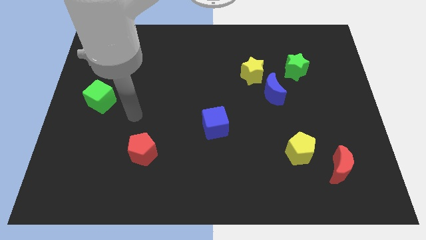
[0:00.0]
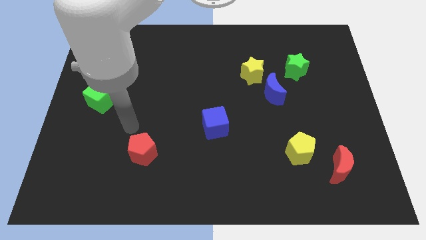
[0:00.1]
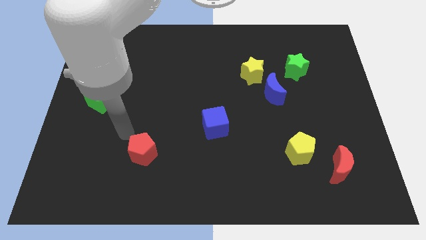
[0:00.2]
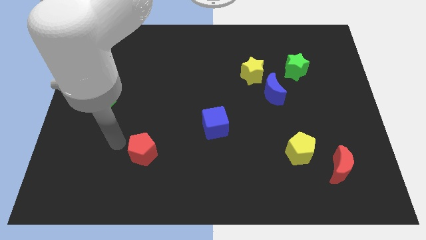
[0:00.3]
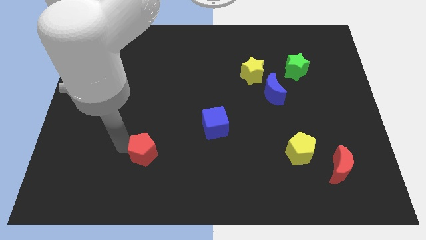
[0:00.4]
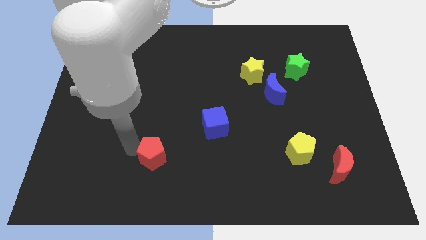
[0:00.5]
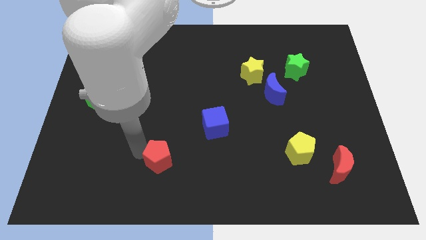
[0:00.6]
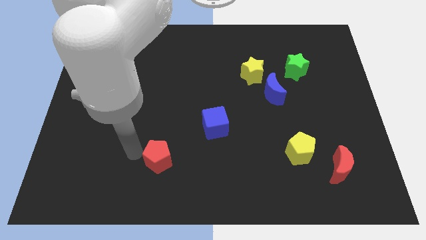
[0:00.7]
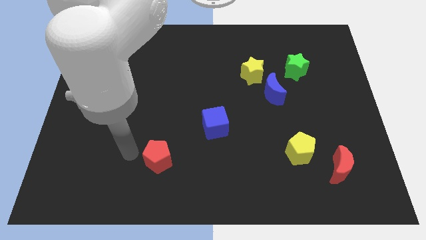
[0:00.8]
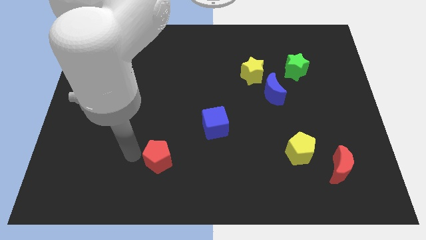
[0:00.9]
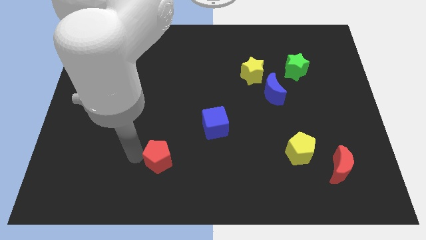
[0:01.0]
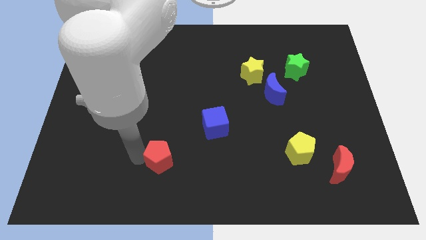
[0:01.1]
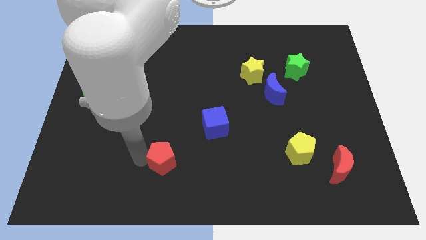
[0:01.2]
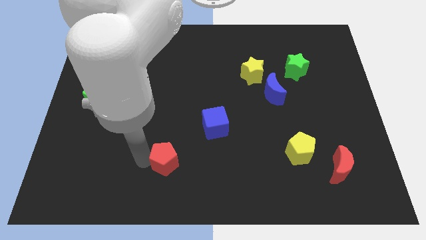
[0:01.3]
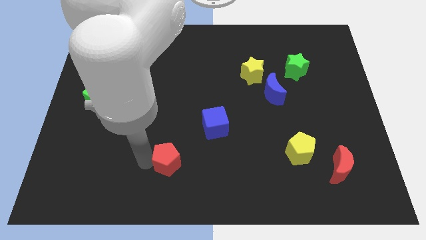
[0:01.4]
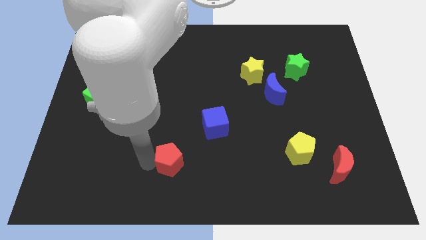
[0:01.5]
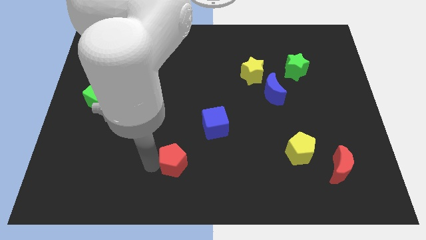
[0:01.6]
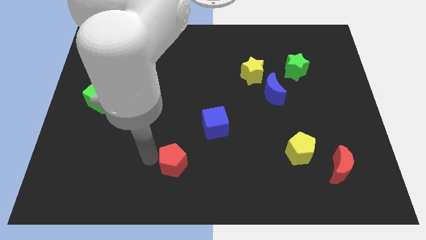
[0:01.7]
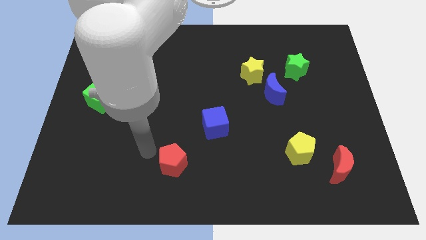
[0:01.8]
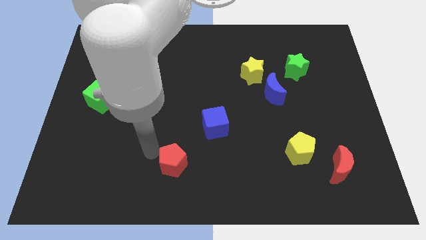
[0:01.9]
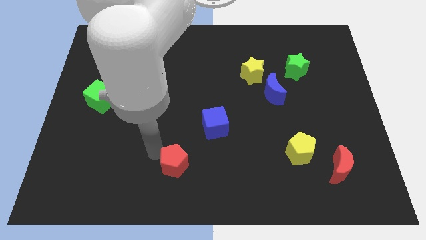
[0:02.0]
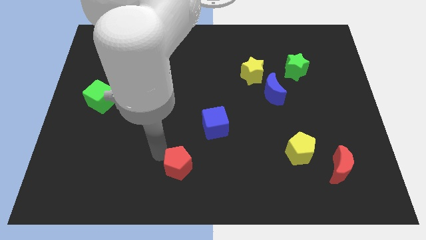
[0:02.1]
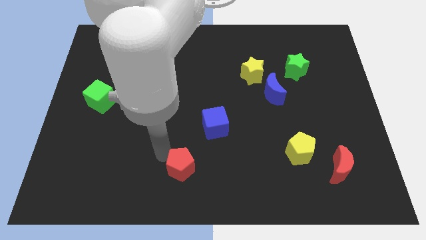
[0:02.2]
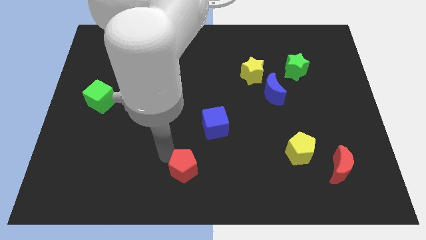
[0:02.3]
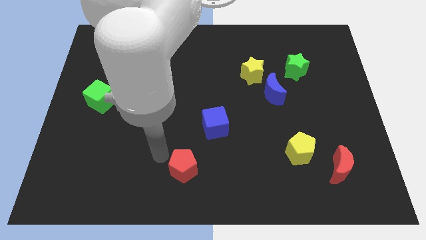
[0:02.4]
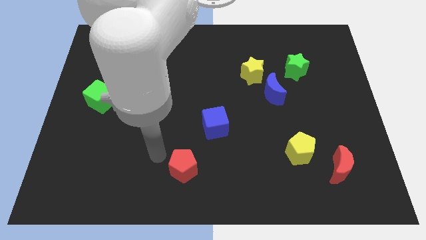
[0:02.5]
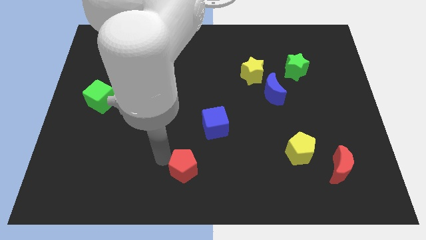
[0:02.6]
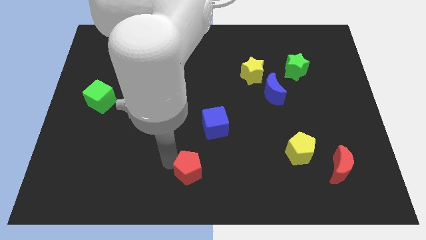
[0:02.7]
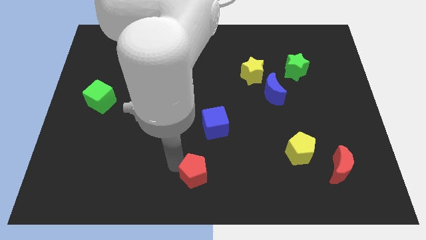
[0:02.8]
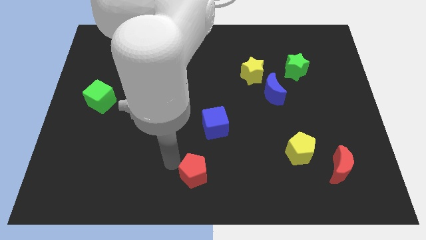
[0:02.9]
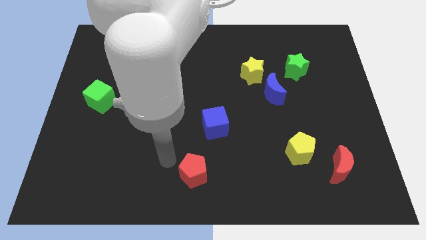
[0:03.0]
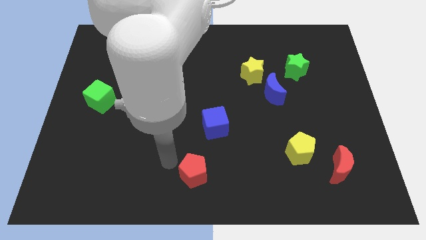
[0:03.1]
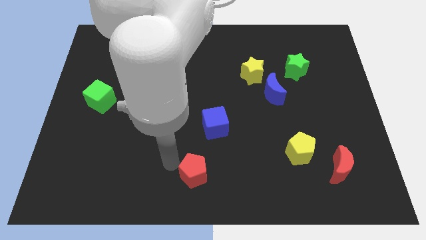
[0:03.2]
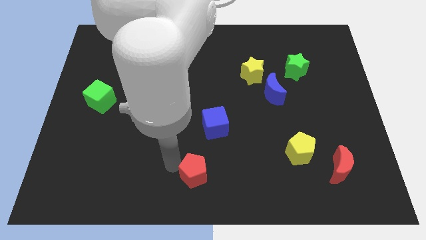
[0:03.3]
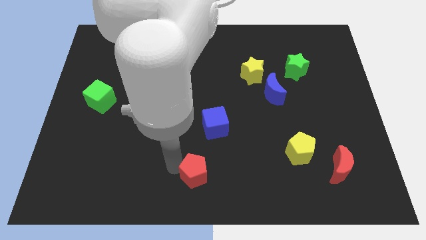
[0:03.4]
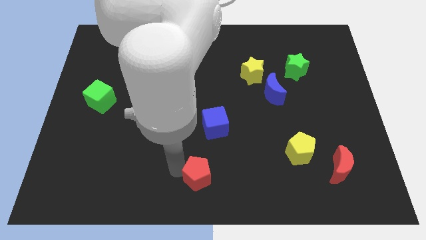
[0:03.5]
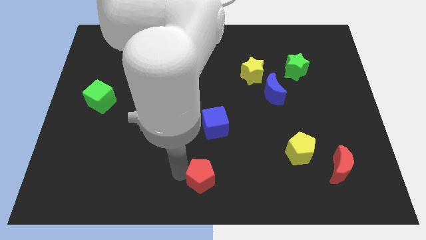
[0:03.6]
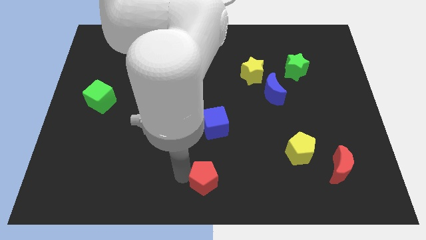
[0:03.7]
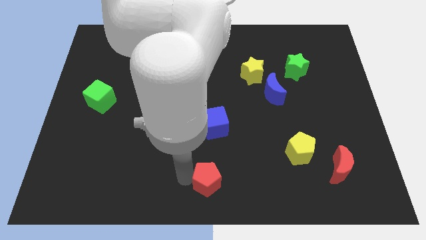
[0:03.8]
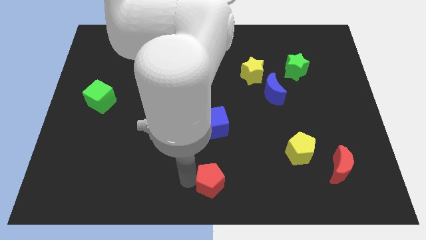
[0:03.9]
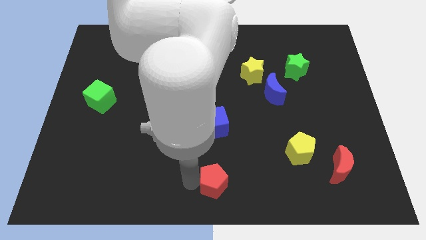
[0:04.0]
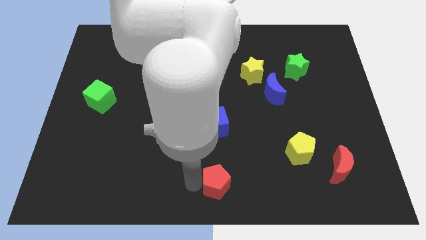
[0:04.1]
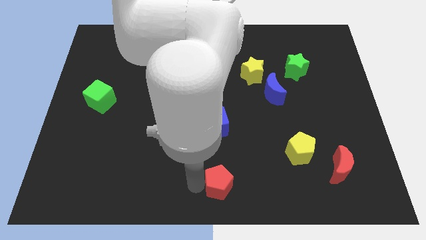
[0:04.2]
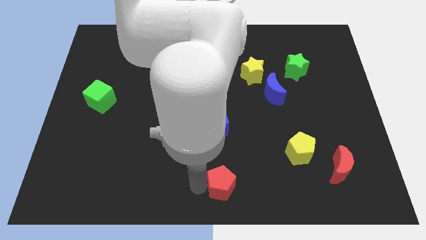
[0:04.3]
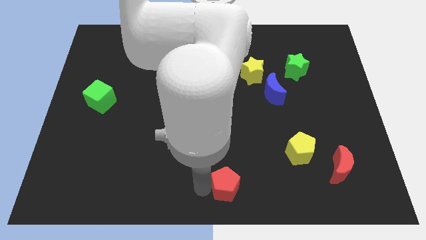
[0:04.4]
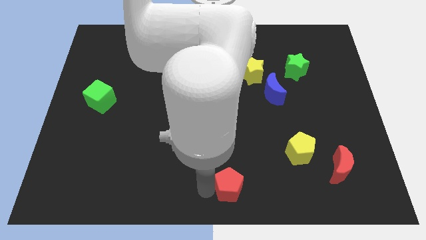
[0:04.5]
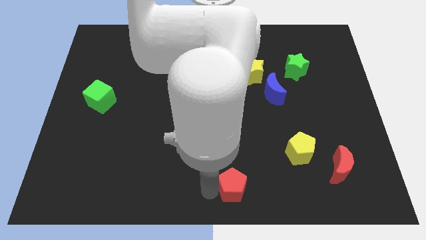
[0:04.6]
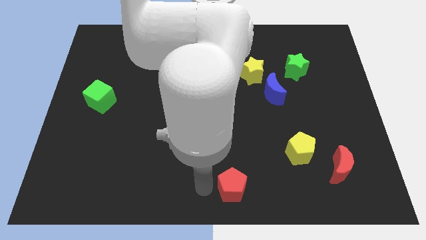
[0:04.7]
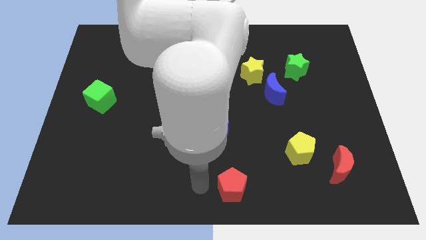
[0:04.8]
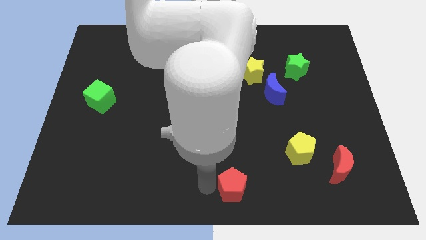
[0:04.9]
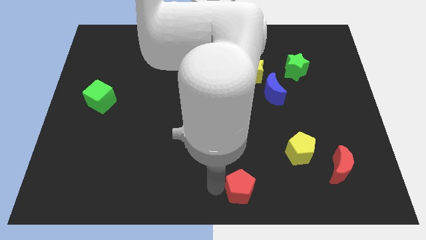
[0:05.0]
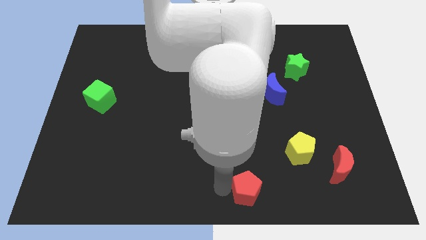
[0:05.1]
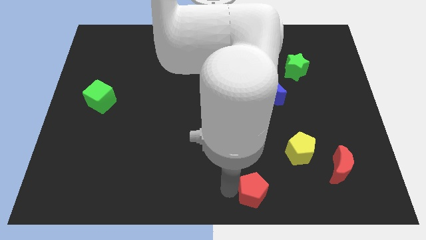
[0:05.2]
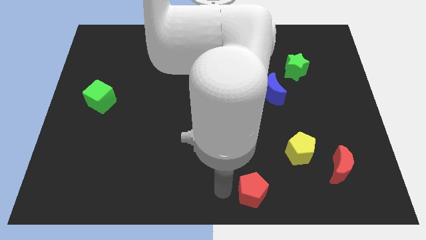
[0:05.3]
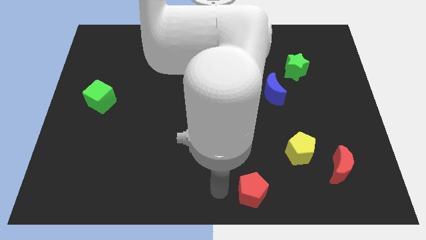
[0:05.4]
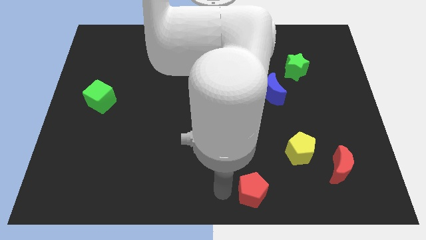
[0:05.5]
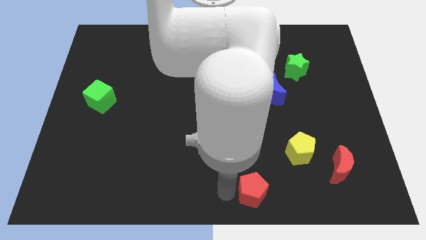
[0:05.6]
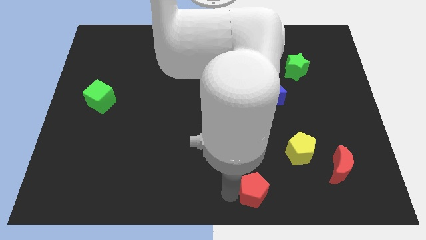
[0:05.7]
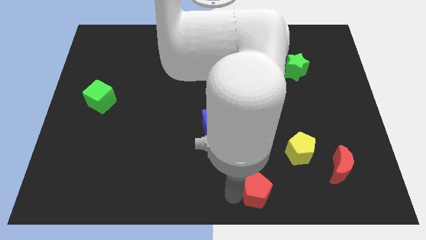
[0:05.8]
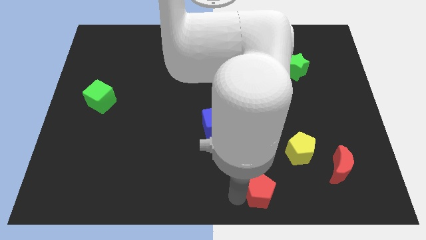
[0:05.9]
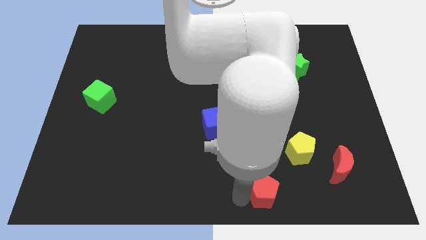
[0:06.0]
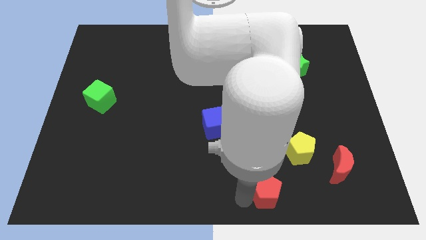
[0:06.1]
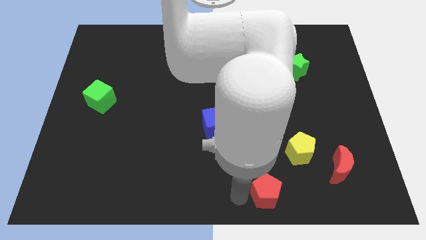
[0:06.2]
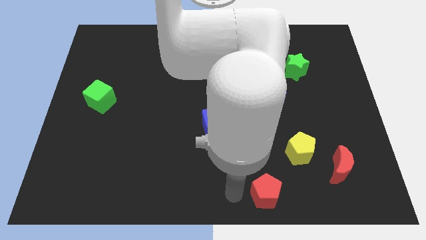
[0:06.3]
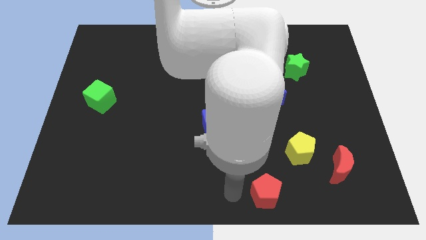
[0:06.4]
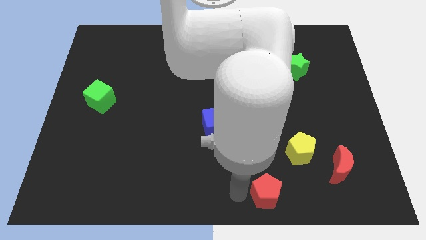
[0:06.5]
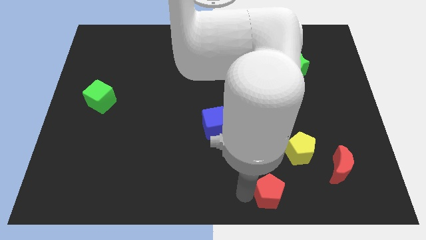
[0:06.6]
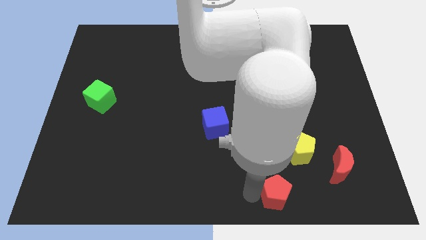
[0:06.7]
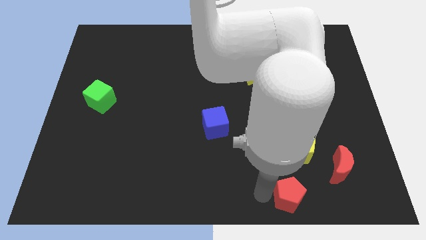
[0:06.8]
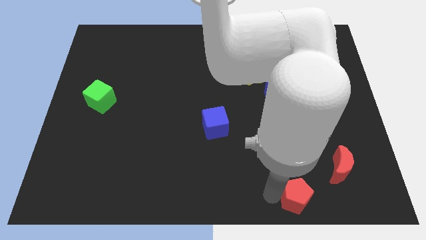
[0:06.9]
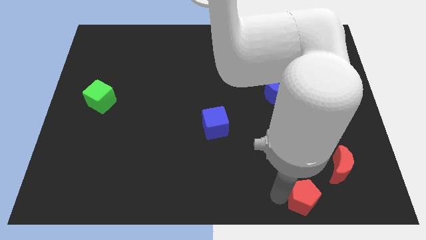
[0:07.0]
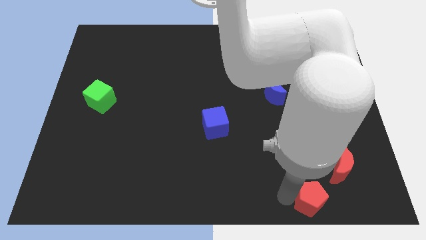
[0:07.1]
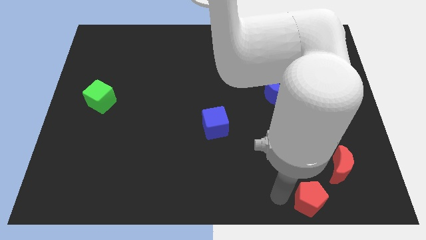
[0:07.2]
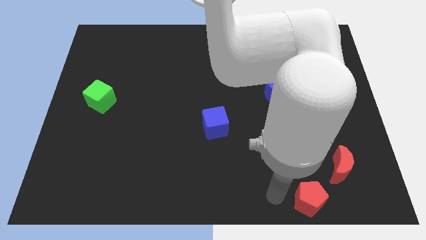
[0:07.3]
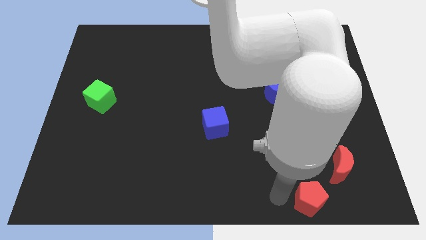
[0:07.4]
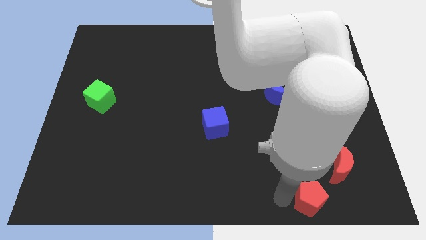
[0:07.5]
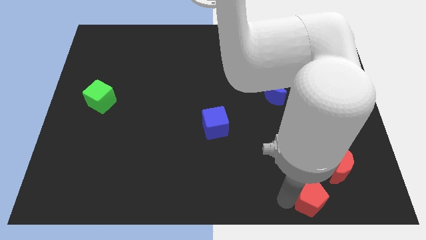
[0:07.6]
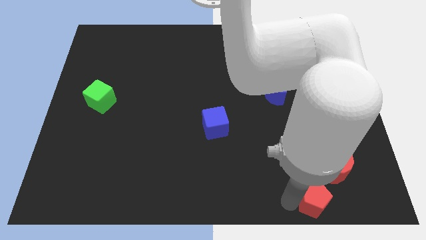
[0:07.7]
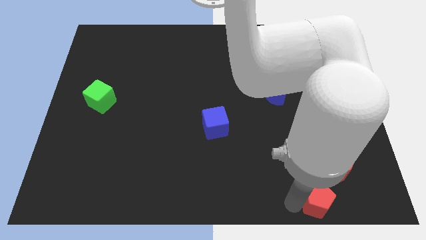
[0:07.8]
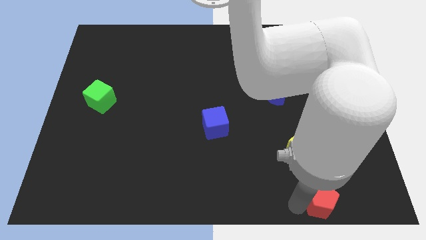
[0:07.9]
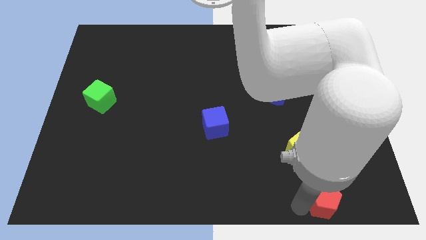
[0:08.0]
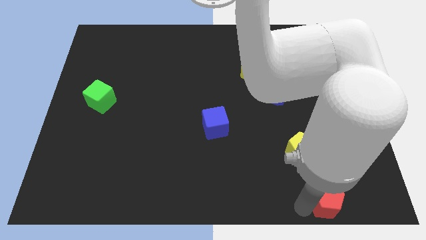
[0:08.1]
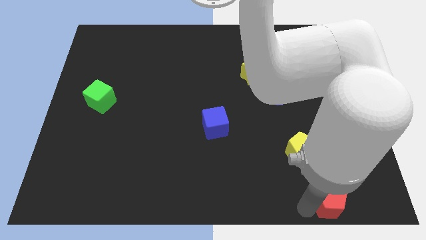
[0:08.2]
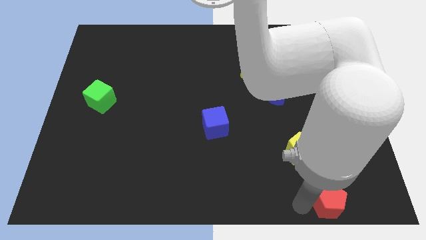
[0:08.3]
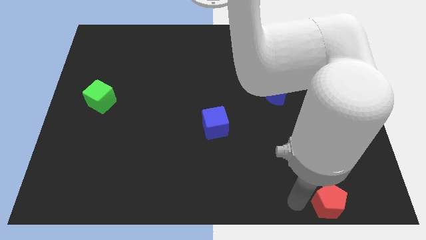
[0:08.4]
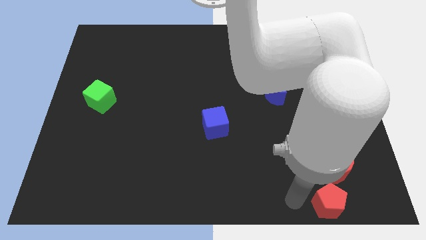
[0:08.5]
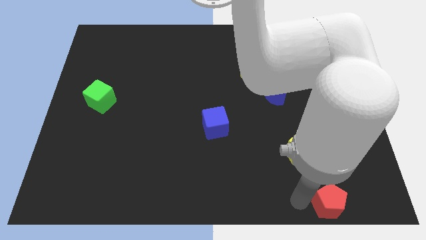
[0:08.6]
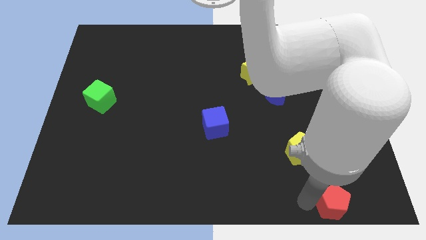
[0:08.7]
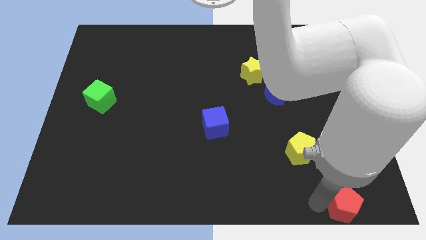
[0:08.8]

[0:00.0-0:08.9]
move the red pentagon to the bottom right corner

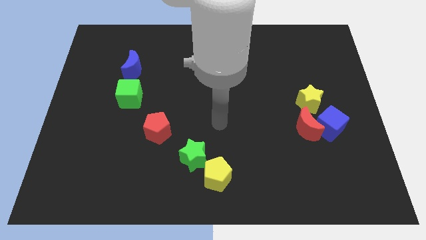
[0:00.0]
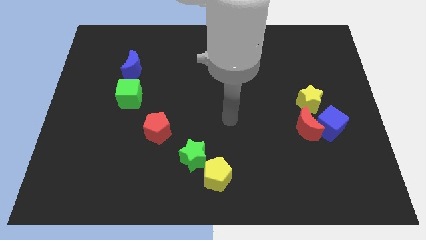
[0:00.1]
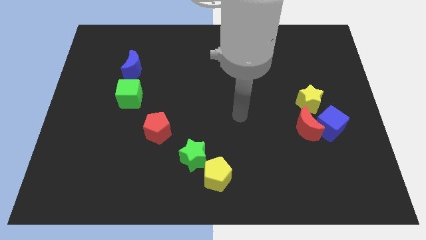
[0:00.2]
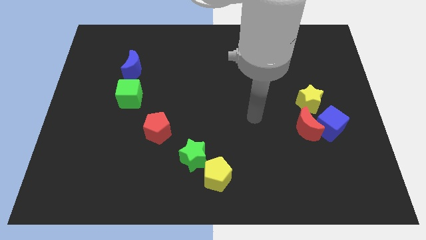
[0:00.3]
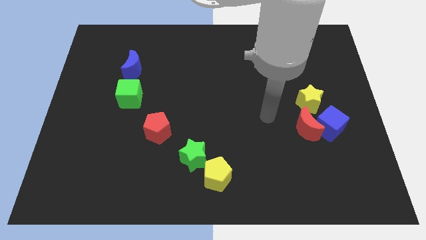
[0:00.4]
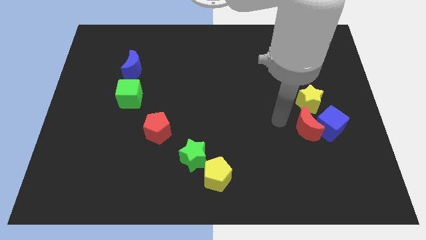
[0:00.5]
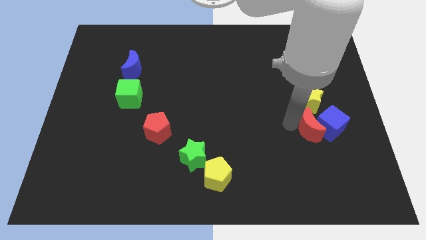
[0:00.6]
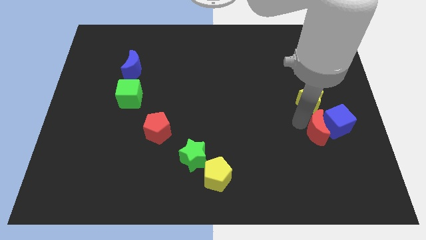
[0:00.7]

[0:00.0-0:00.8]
slide the blue cube to the right side of the board
